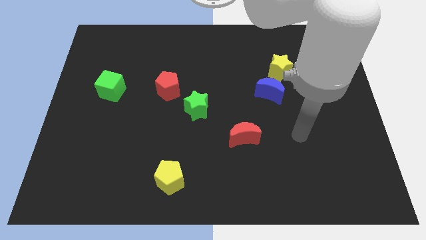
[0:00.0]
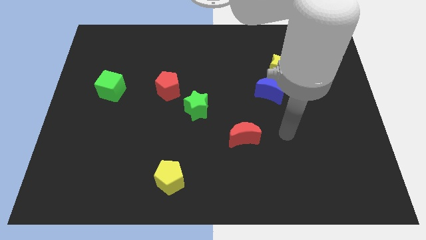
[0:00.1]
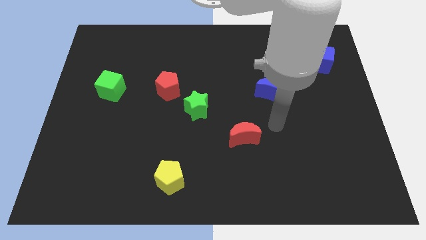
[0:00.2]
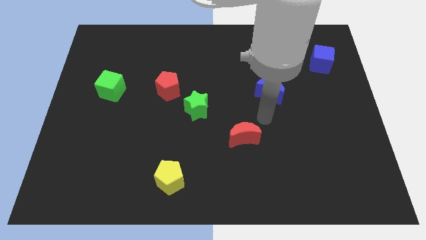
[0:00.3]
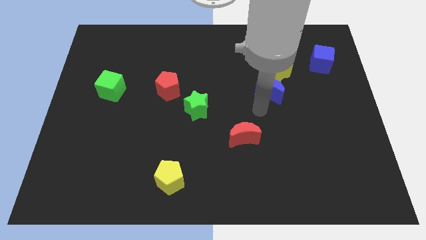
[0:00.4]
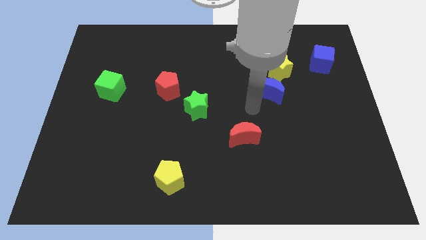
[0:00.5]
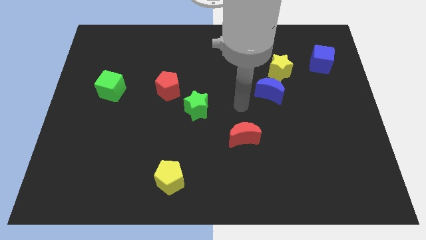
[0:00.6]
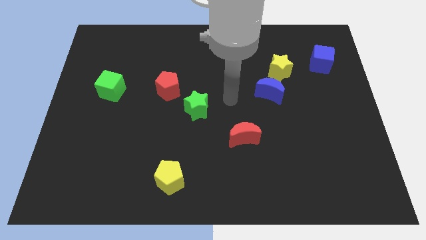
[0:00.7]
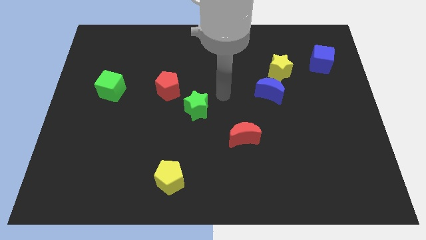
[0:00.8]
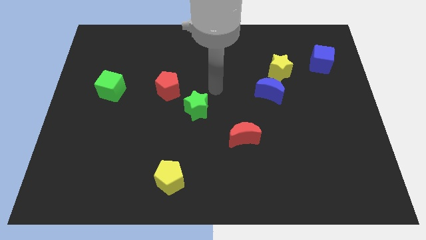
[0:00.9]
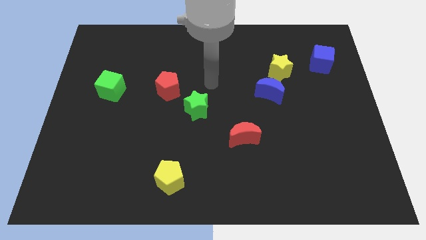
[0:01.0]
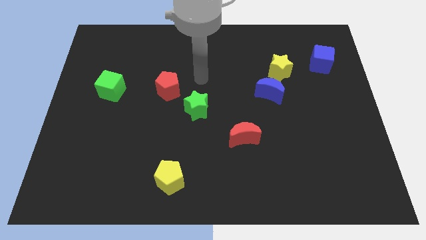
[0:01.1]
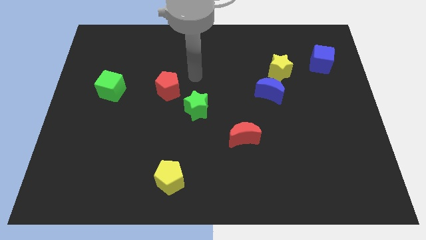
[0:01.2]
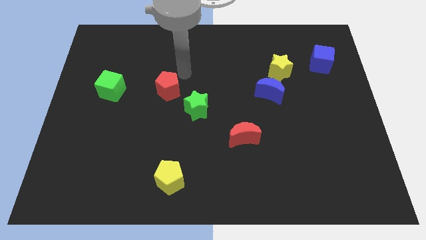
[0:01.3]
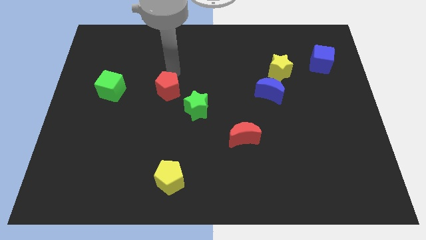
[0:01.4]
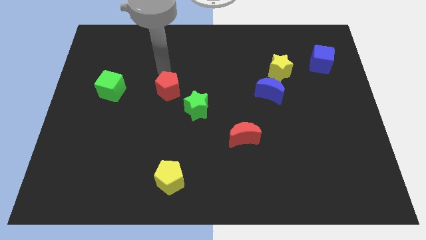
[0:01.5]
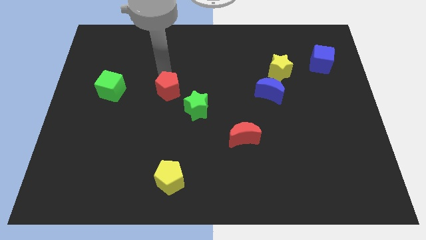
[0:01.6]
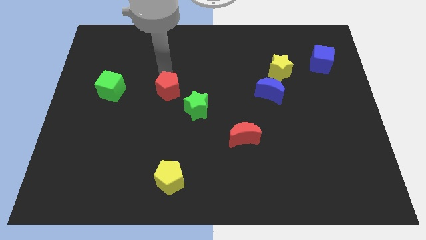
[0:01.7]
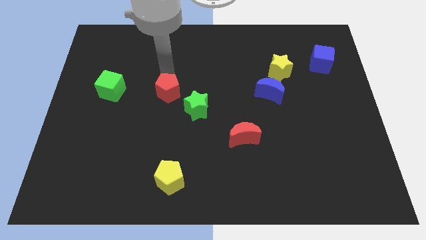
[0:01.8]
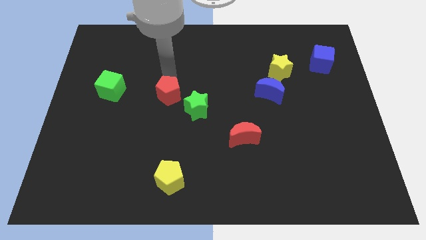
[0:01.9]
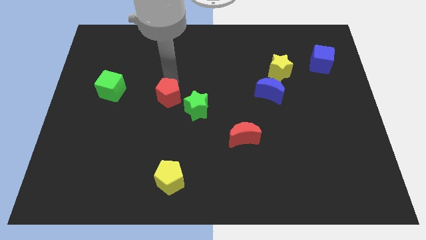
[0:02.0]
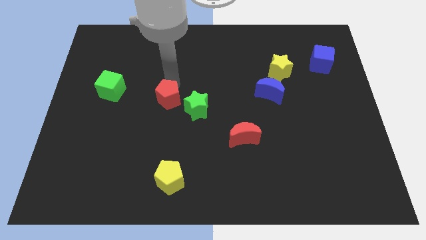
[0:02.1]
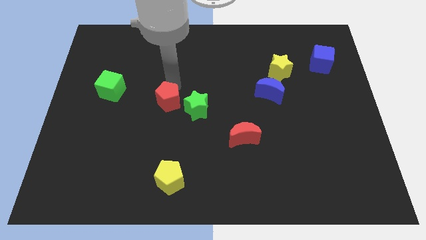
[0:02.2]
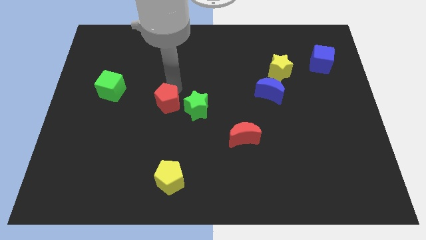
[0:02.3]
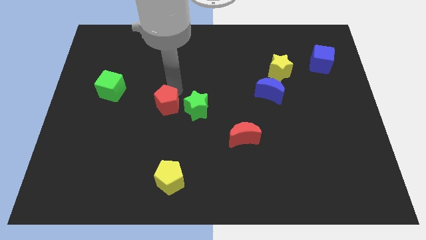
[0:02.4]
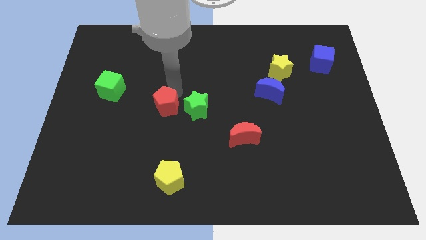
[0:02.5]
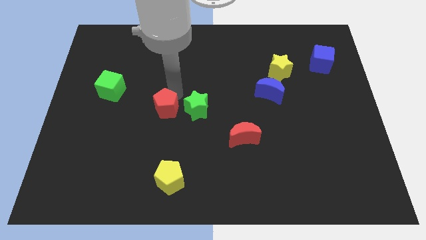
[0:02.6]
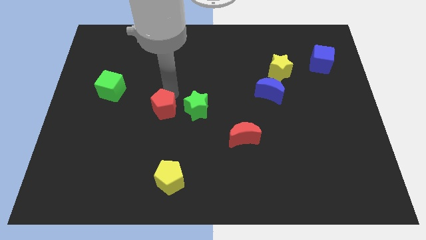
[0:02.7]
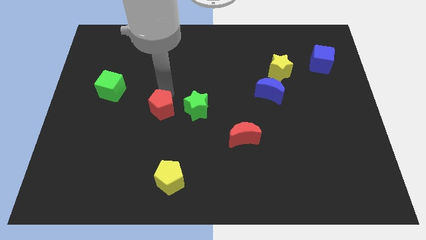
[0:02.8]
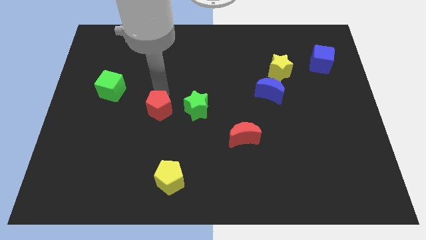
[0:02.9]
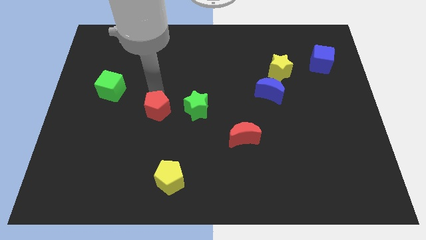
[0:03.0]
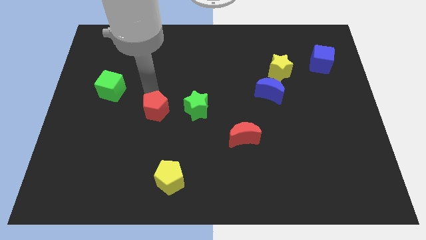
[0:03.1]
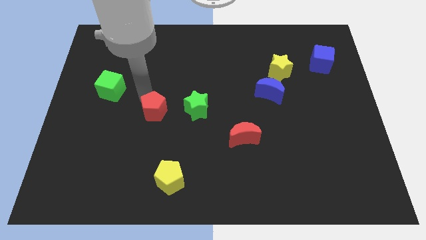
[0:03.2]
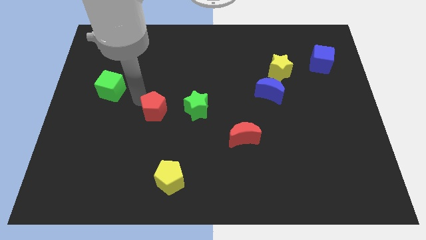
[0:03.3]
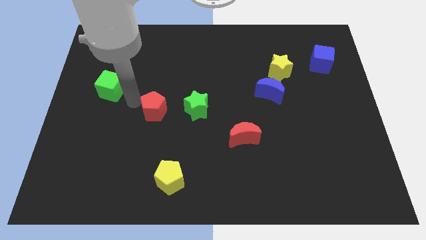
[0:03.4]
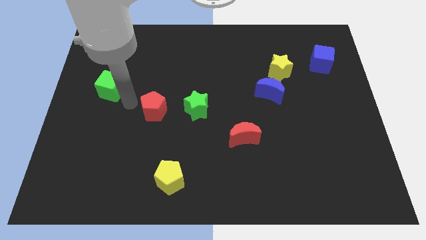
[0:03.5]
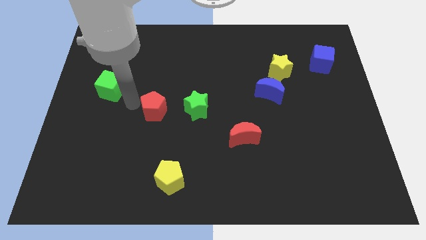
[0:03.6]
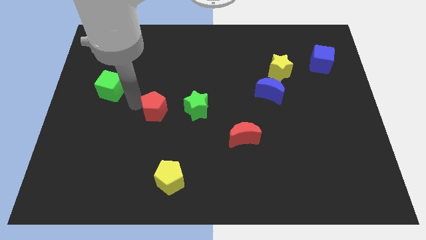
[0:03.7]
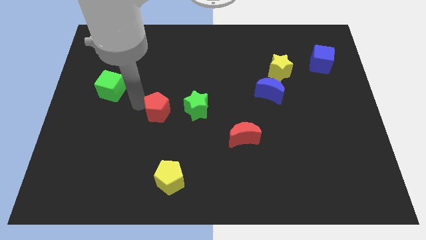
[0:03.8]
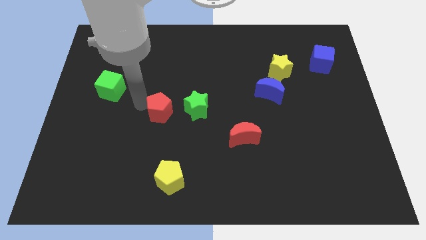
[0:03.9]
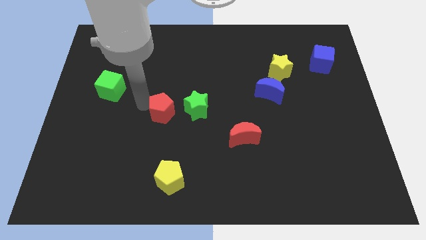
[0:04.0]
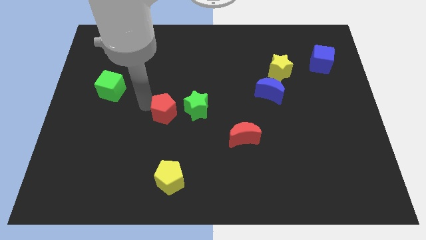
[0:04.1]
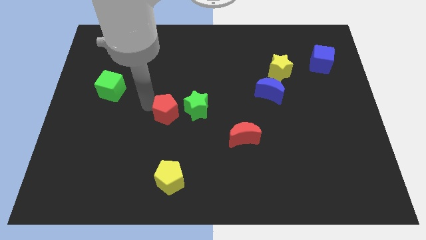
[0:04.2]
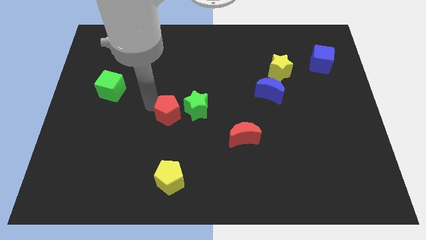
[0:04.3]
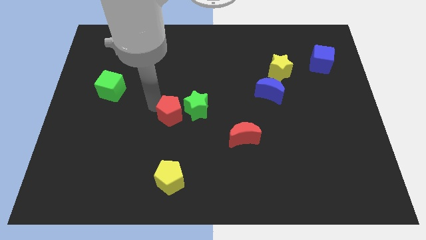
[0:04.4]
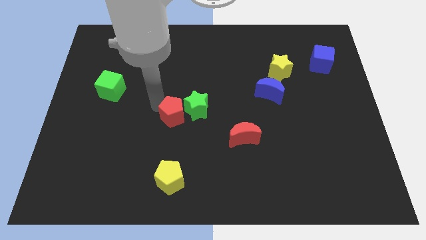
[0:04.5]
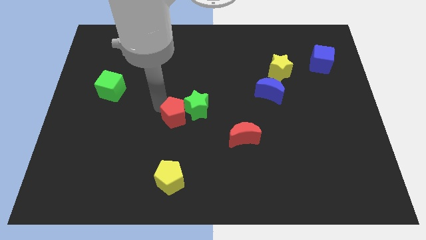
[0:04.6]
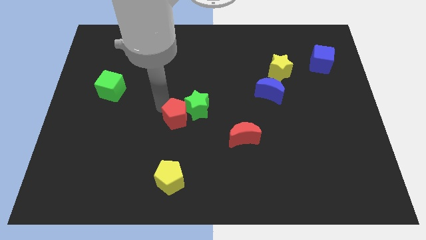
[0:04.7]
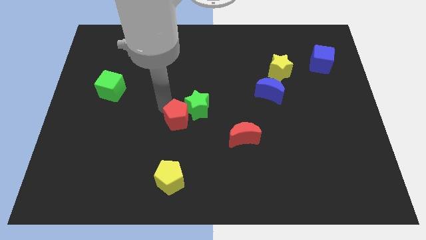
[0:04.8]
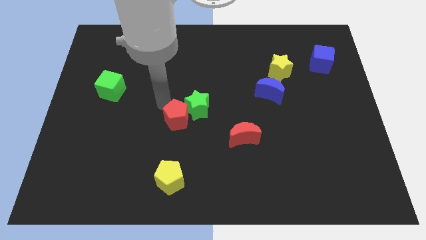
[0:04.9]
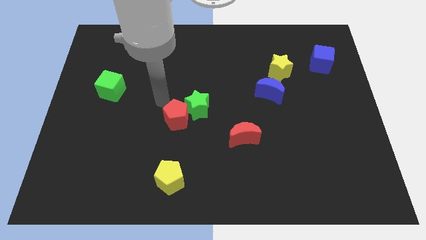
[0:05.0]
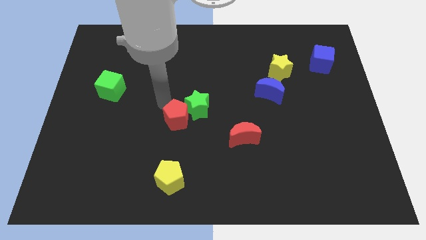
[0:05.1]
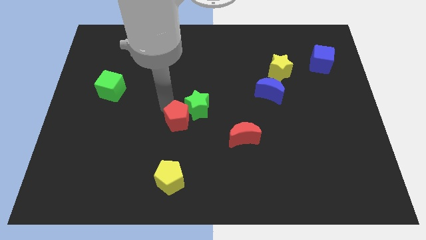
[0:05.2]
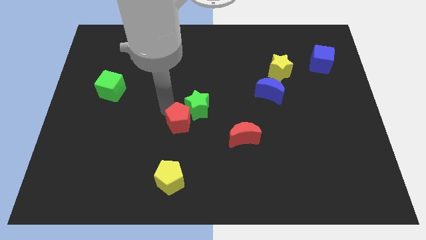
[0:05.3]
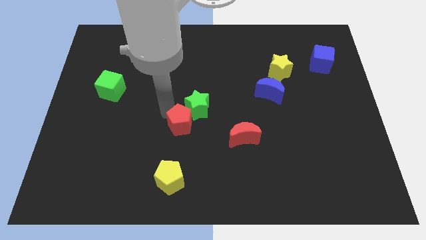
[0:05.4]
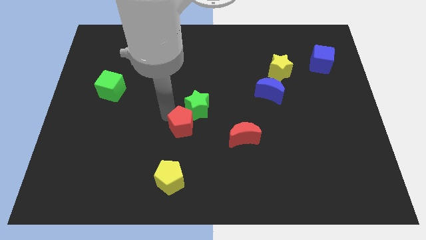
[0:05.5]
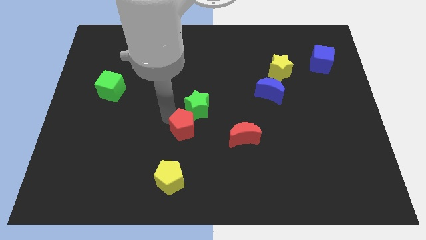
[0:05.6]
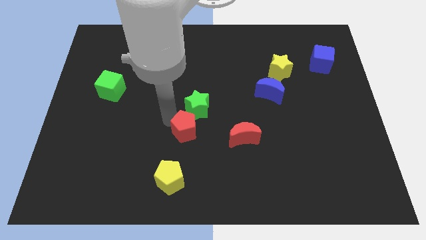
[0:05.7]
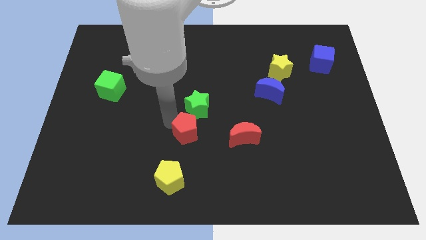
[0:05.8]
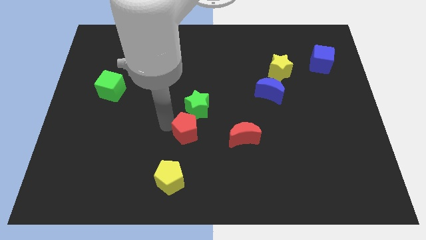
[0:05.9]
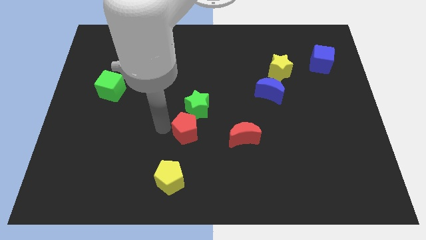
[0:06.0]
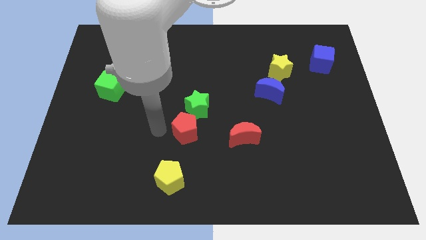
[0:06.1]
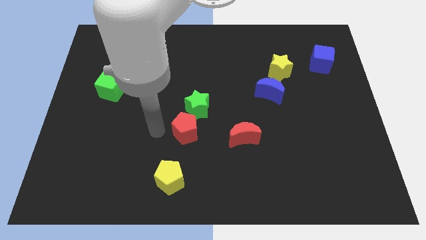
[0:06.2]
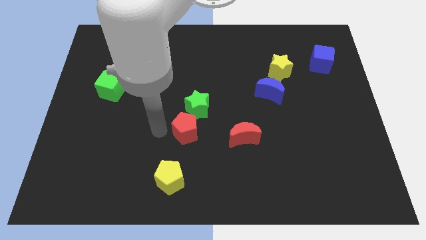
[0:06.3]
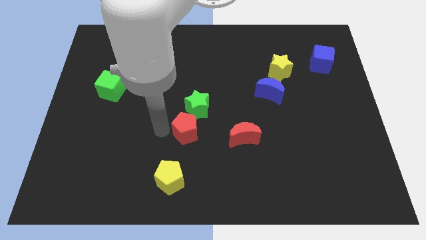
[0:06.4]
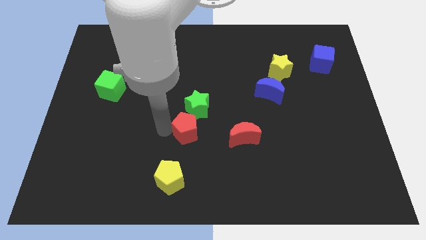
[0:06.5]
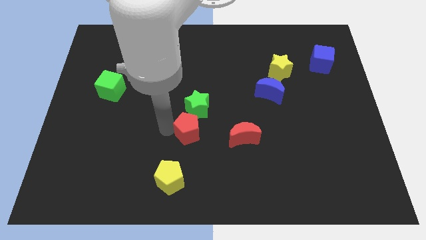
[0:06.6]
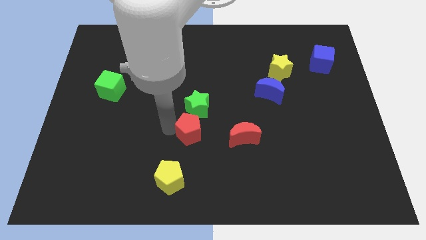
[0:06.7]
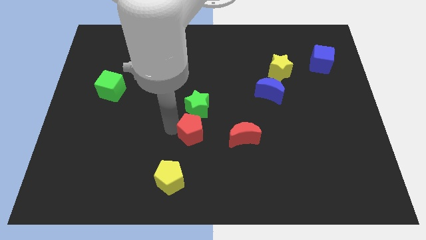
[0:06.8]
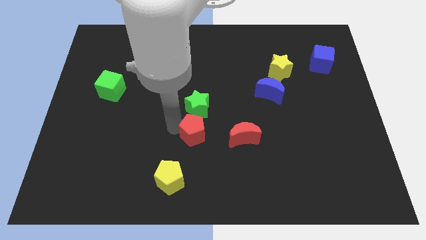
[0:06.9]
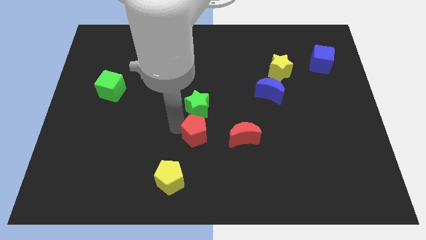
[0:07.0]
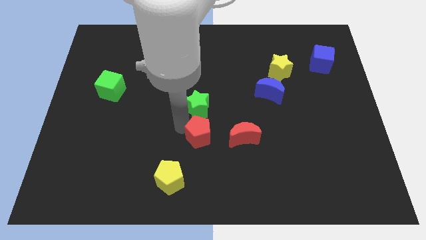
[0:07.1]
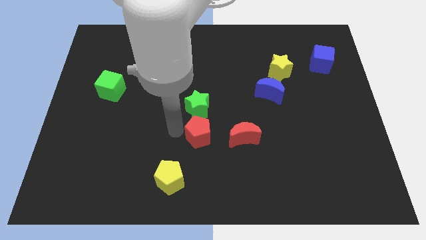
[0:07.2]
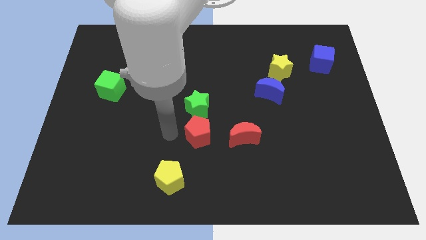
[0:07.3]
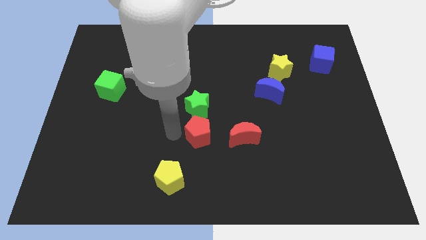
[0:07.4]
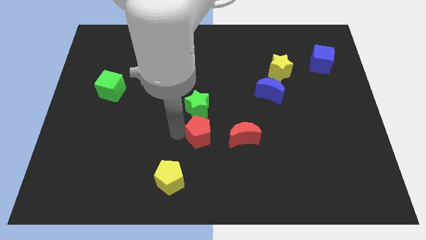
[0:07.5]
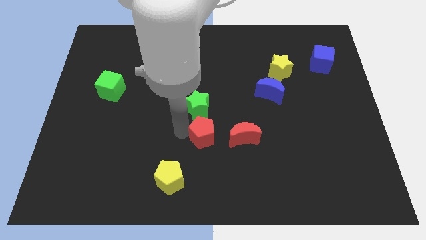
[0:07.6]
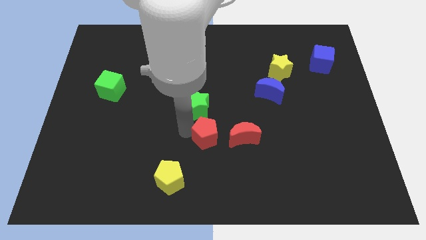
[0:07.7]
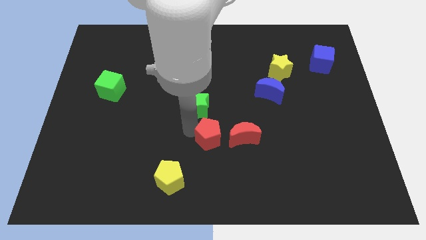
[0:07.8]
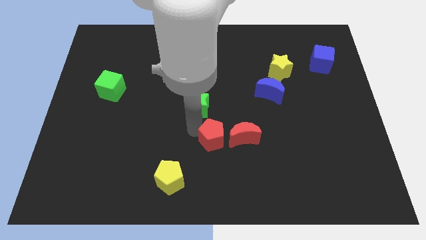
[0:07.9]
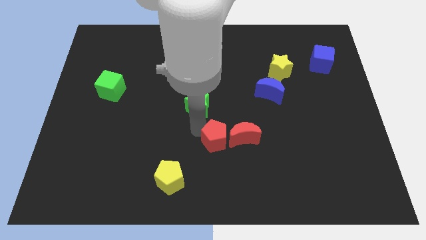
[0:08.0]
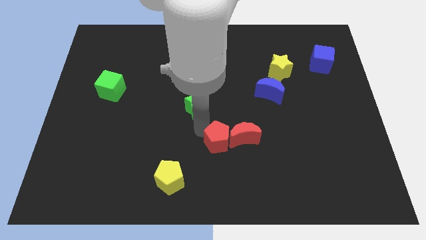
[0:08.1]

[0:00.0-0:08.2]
slide the red pentagon to the red moon
